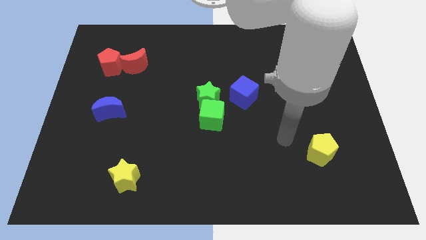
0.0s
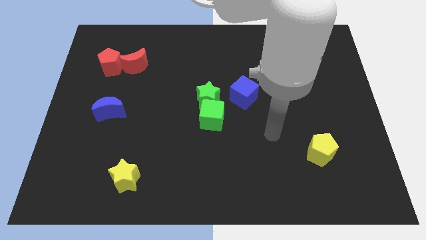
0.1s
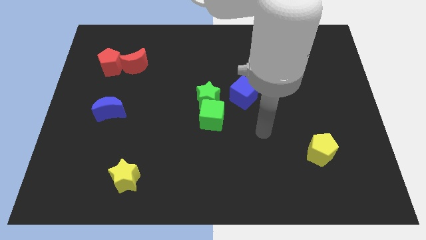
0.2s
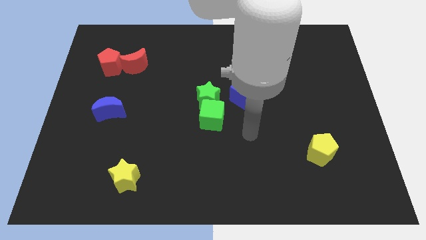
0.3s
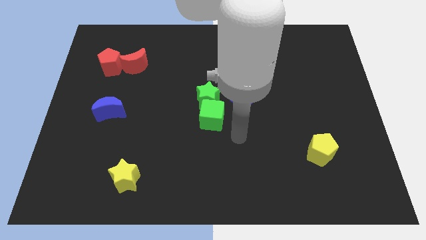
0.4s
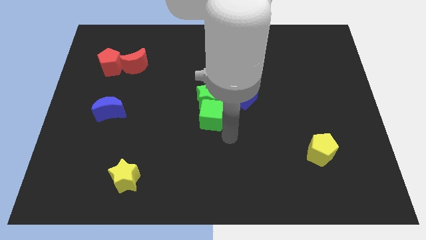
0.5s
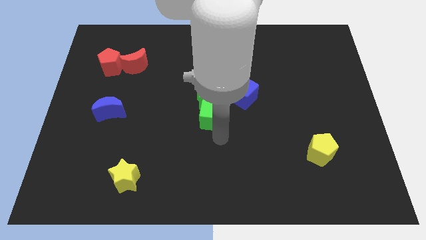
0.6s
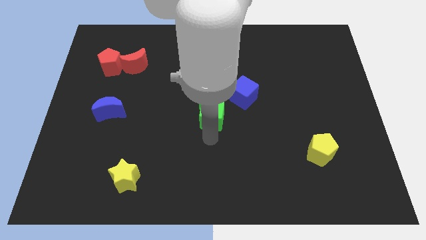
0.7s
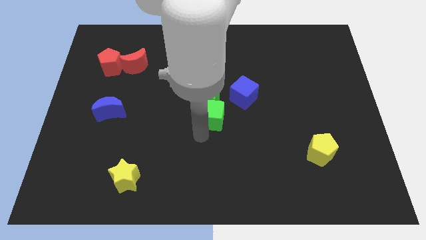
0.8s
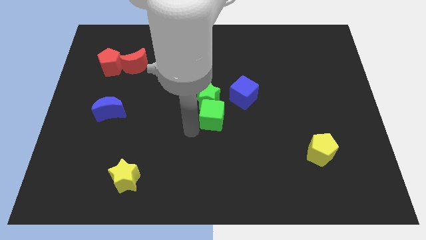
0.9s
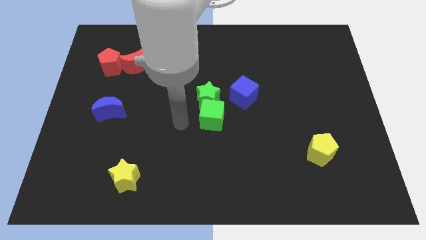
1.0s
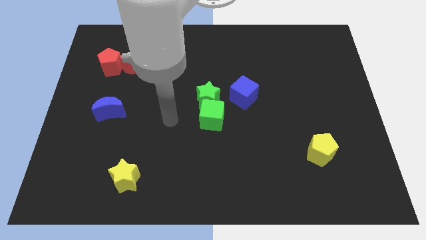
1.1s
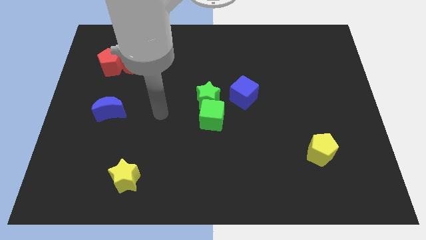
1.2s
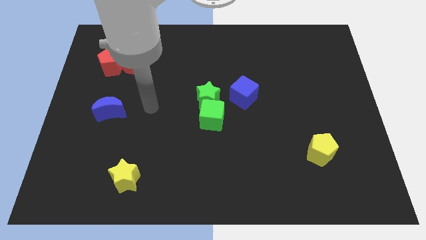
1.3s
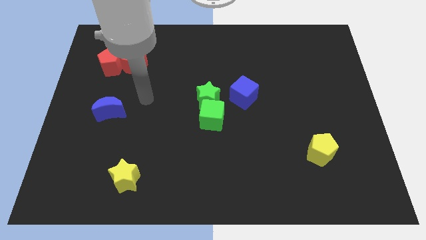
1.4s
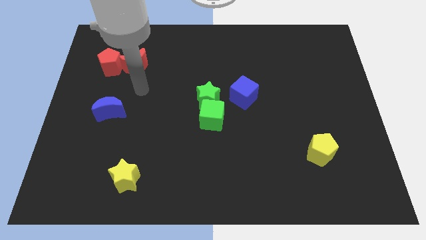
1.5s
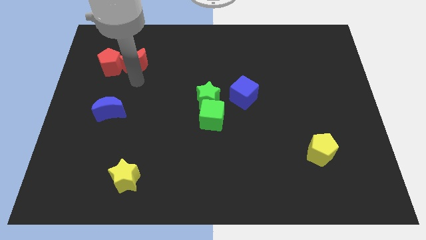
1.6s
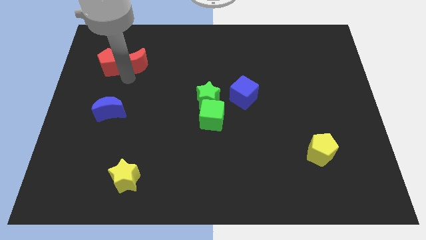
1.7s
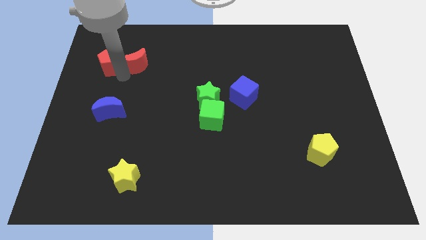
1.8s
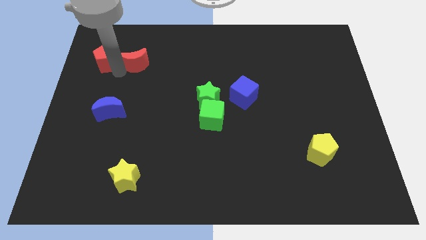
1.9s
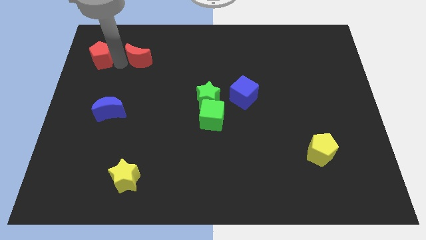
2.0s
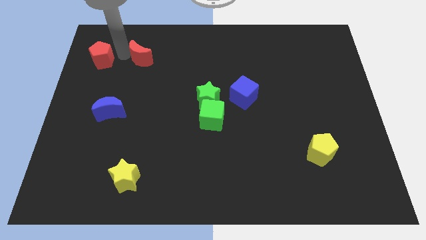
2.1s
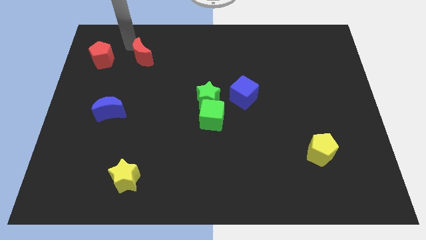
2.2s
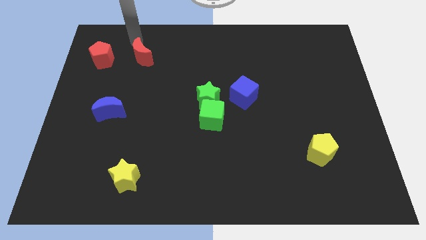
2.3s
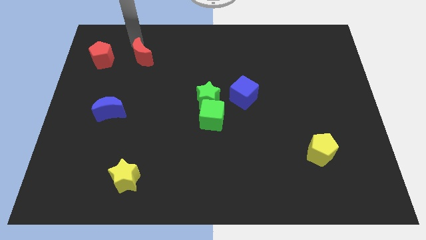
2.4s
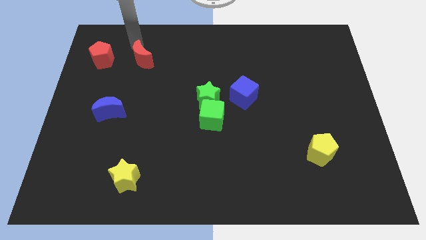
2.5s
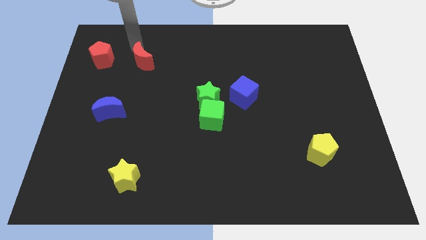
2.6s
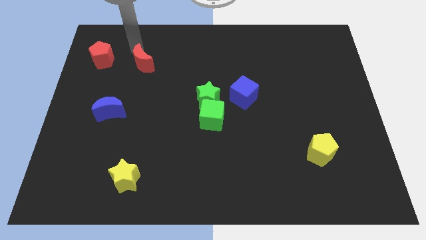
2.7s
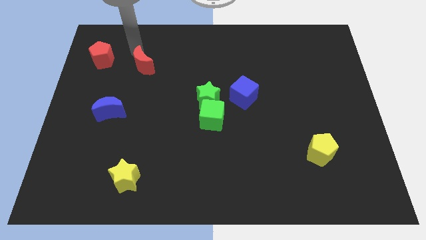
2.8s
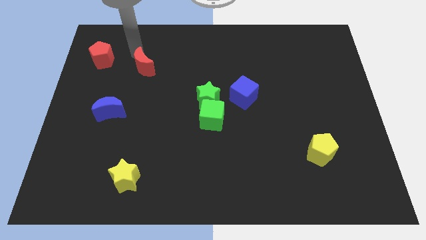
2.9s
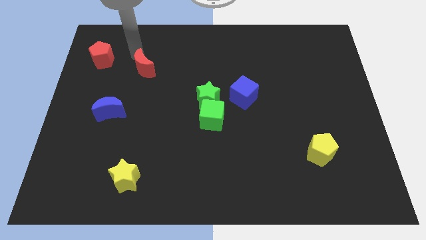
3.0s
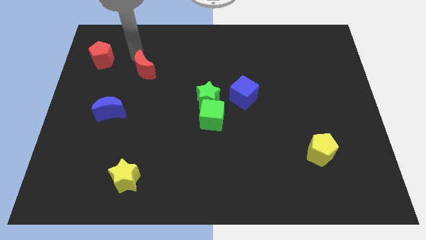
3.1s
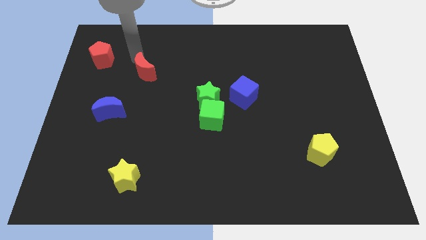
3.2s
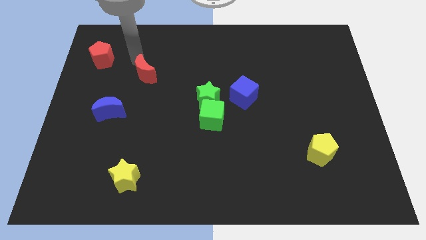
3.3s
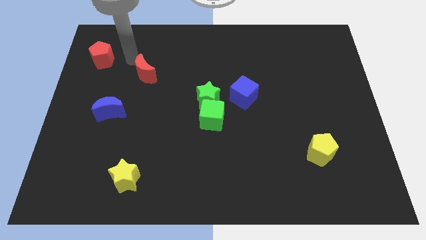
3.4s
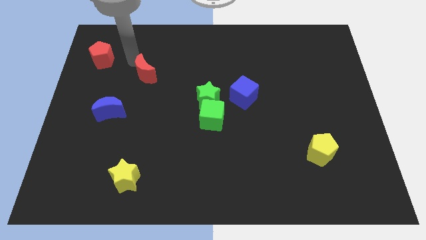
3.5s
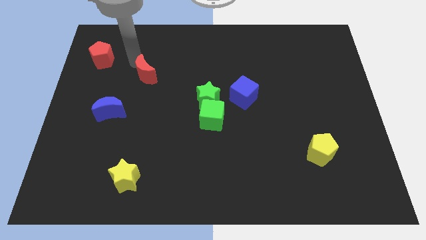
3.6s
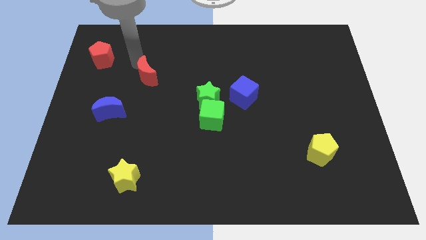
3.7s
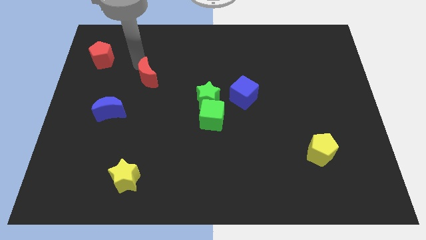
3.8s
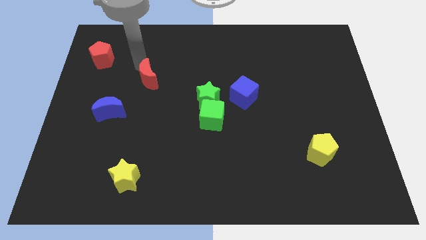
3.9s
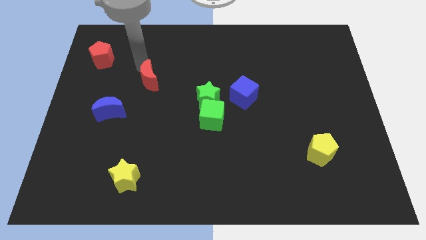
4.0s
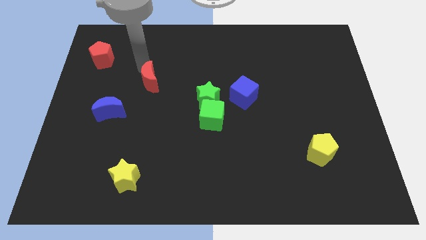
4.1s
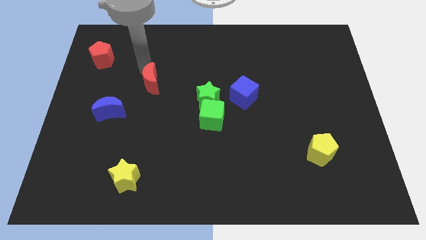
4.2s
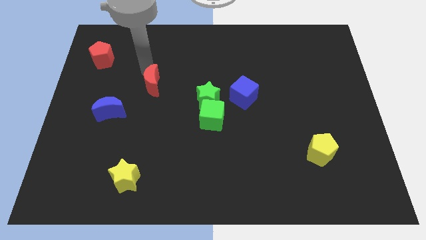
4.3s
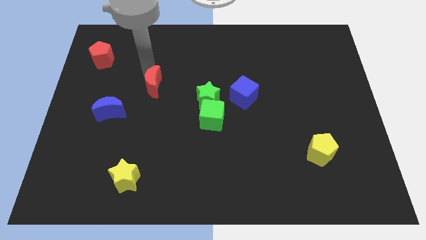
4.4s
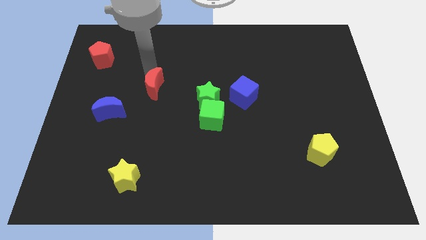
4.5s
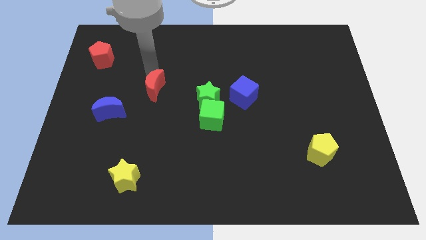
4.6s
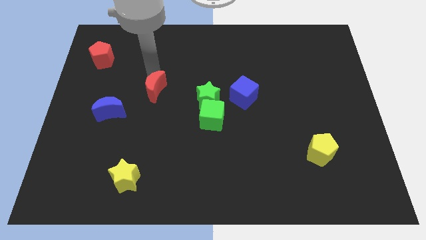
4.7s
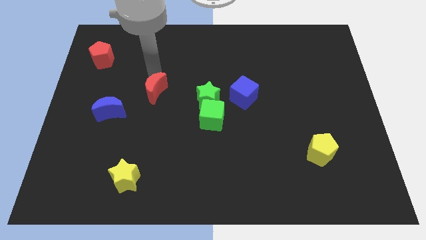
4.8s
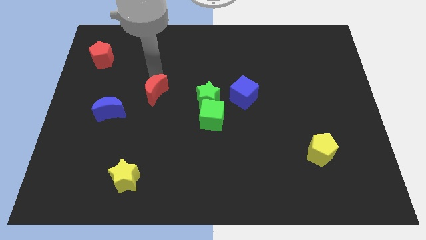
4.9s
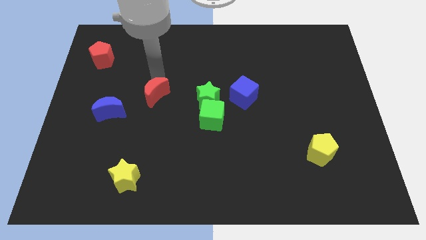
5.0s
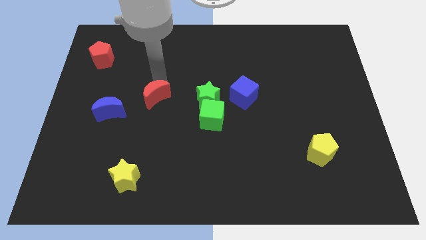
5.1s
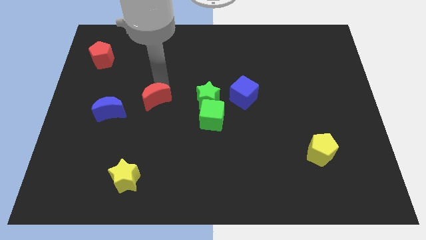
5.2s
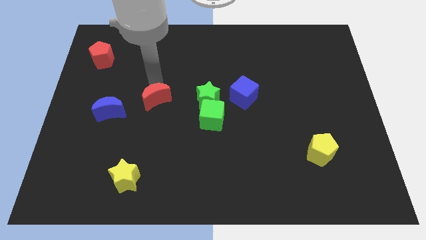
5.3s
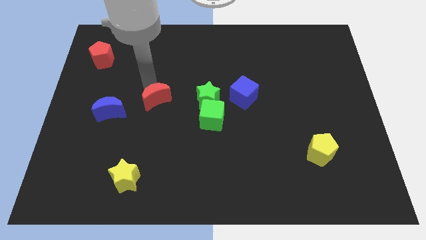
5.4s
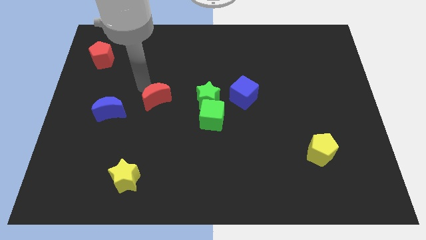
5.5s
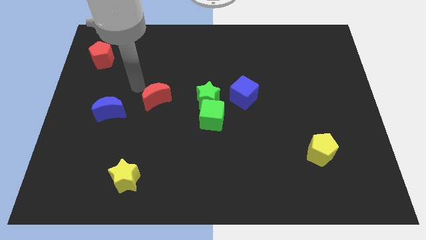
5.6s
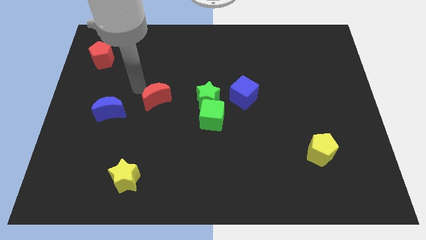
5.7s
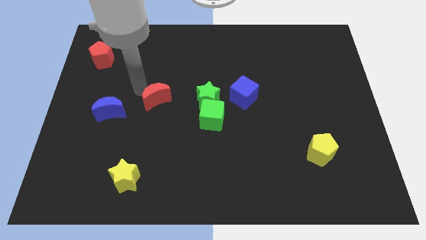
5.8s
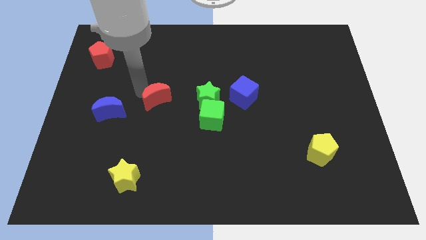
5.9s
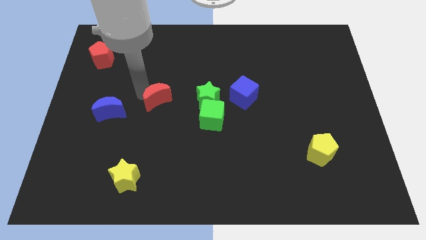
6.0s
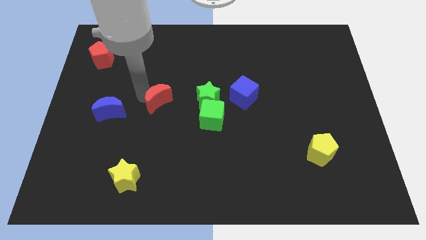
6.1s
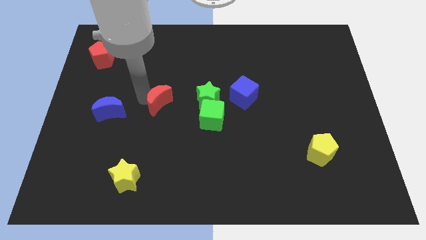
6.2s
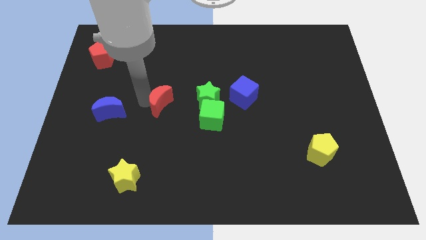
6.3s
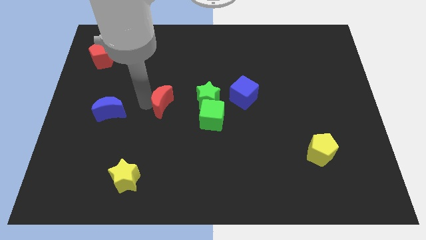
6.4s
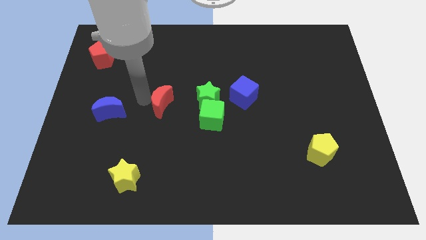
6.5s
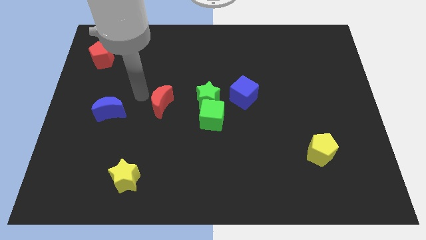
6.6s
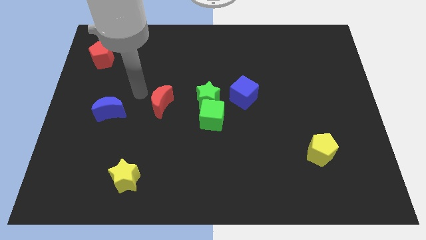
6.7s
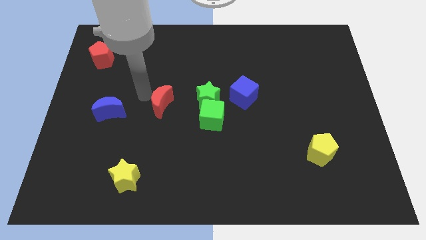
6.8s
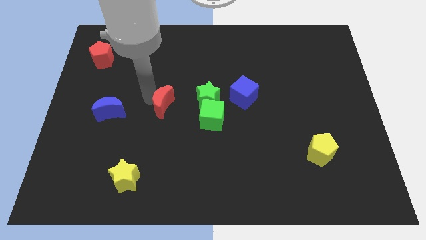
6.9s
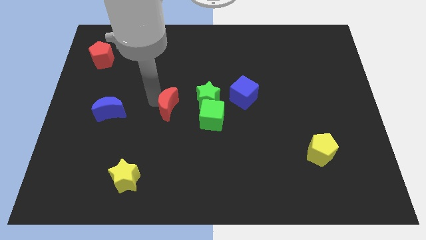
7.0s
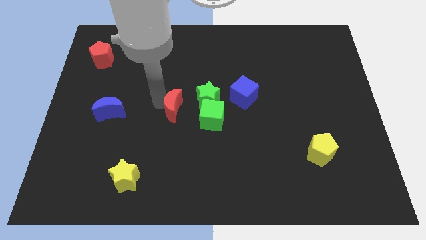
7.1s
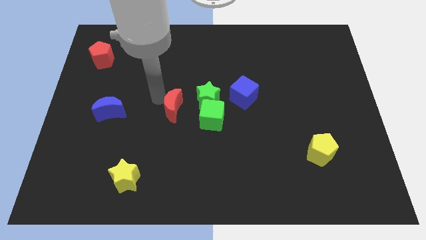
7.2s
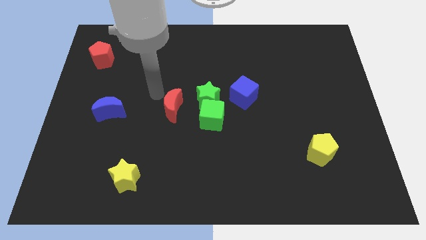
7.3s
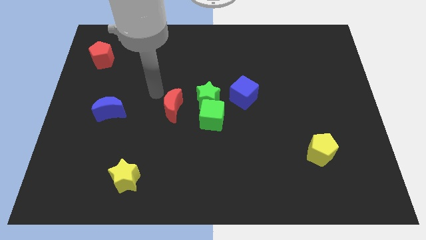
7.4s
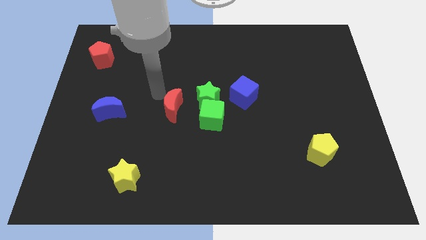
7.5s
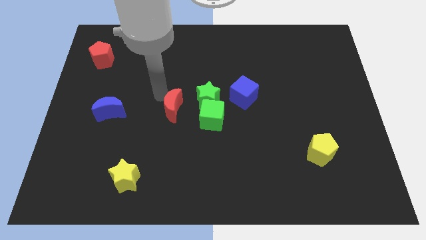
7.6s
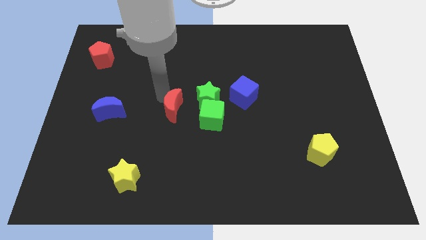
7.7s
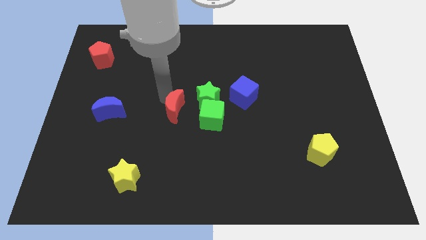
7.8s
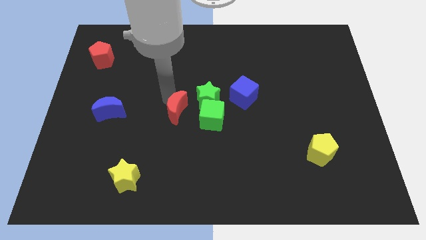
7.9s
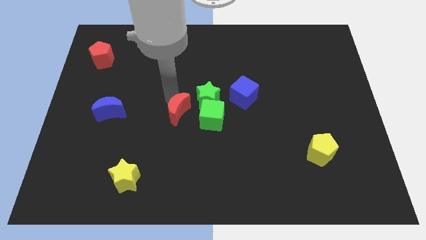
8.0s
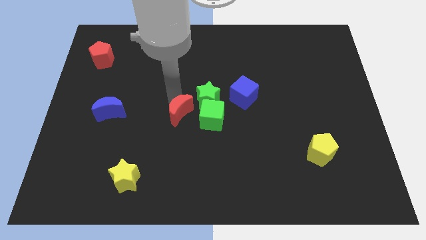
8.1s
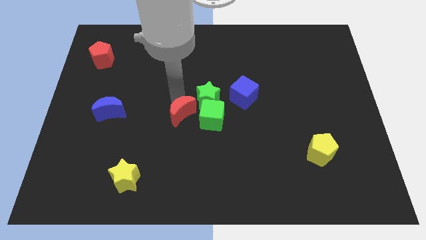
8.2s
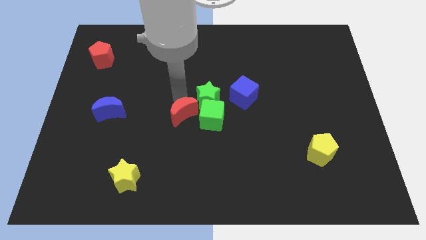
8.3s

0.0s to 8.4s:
move the red moon down and right diagonally
